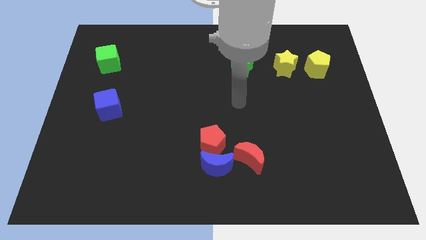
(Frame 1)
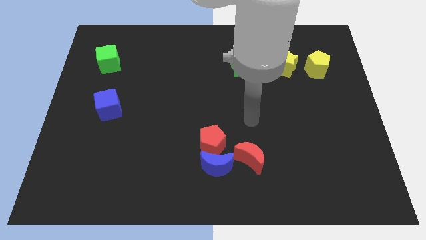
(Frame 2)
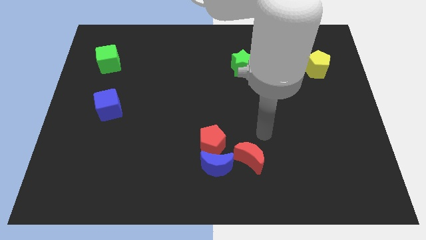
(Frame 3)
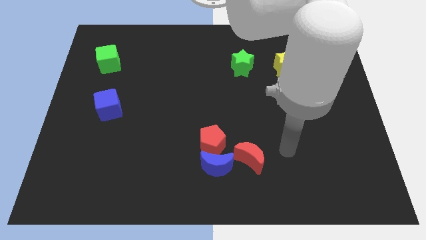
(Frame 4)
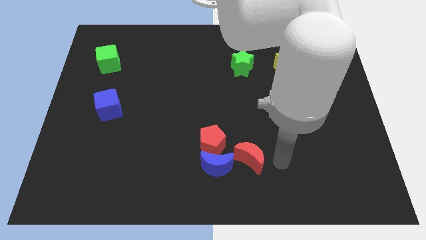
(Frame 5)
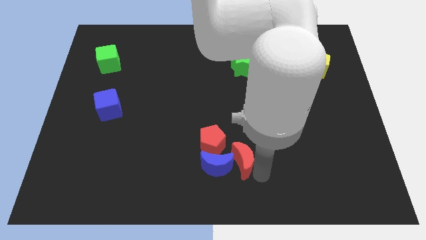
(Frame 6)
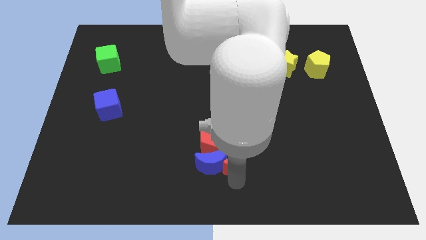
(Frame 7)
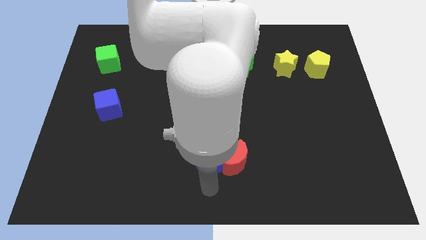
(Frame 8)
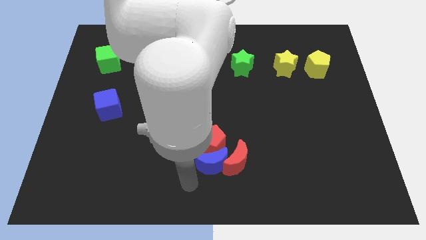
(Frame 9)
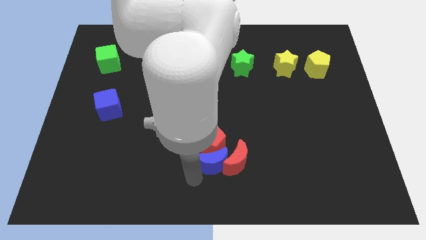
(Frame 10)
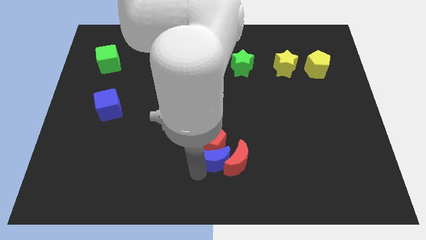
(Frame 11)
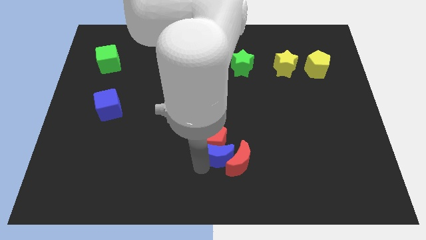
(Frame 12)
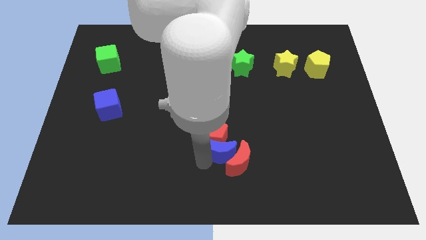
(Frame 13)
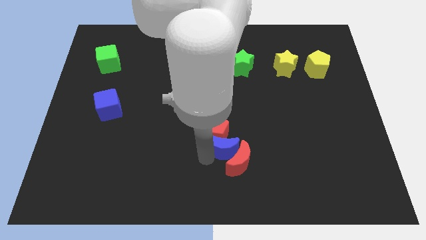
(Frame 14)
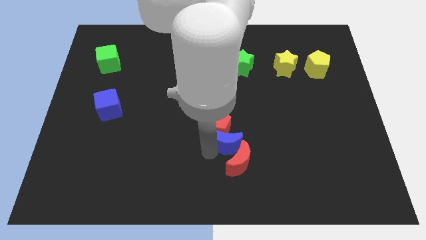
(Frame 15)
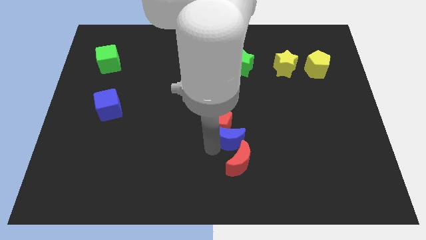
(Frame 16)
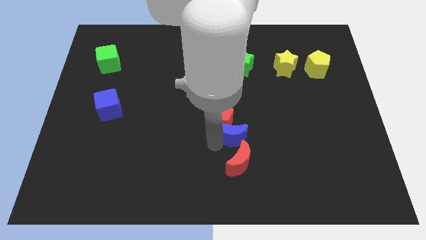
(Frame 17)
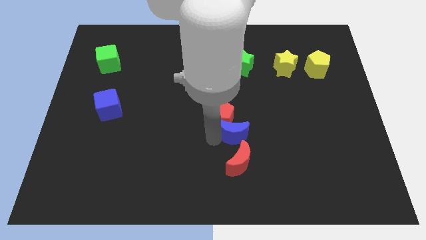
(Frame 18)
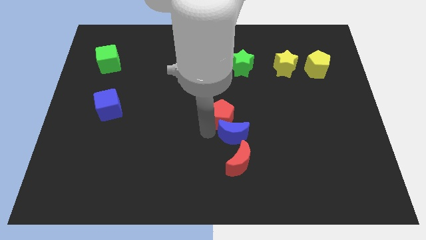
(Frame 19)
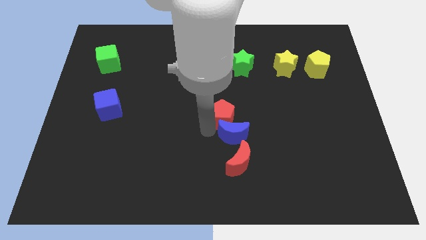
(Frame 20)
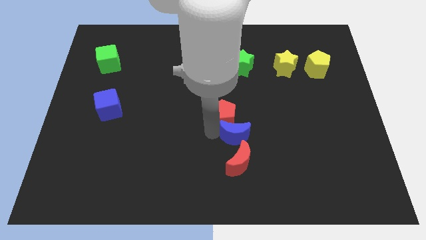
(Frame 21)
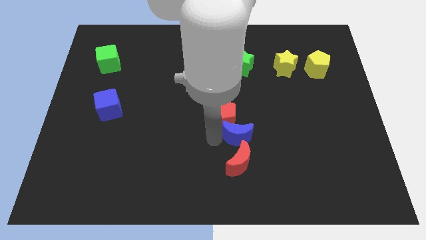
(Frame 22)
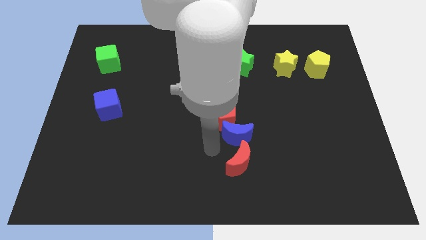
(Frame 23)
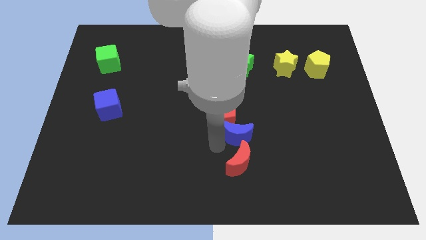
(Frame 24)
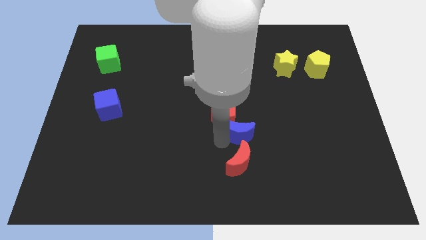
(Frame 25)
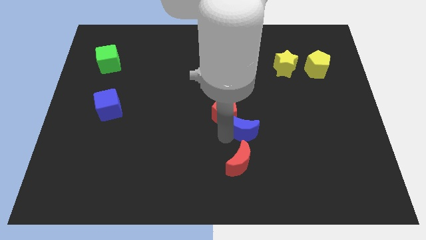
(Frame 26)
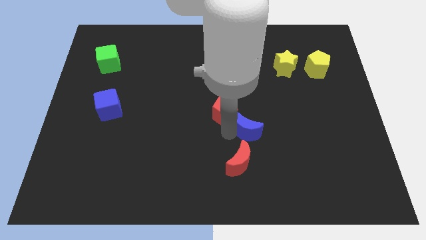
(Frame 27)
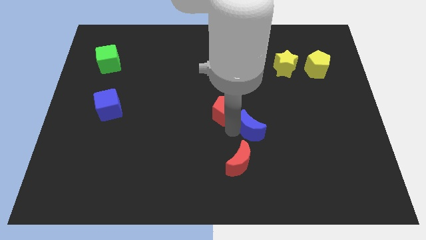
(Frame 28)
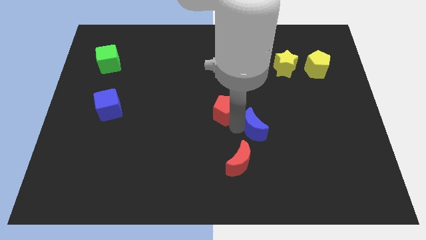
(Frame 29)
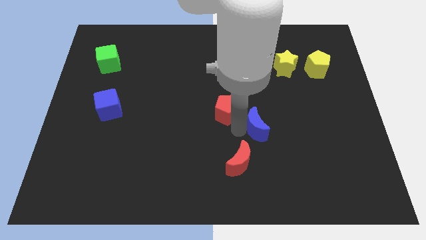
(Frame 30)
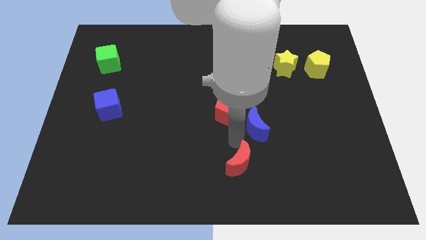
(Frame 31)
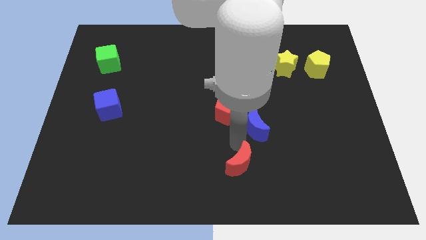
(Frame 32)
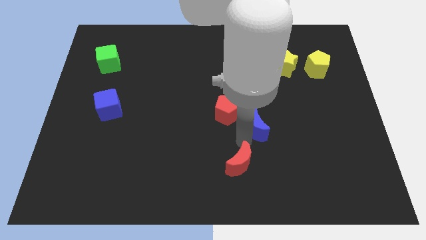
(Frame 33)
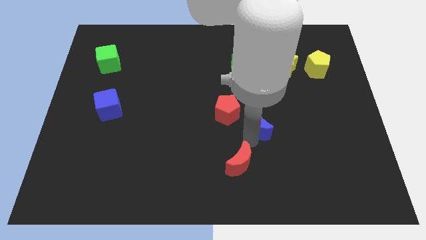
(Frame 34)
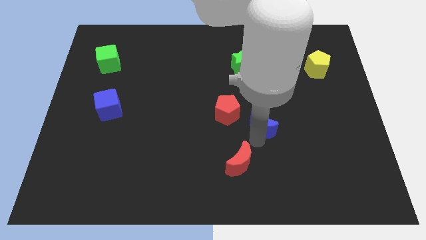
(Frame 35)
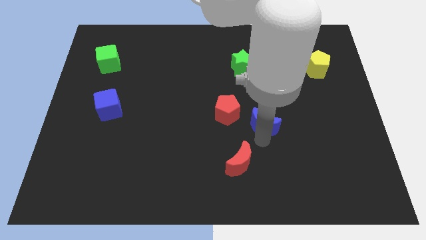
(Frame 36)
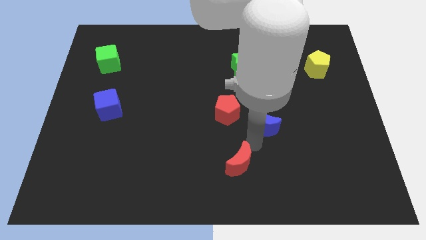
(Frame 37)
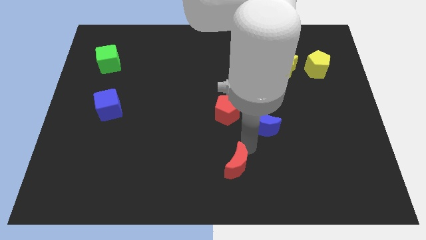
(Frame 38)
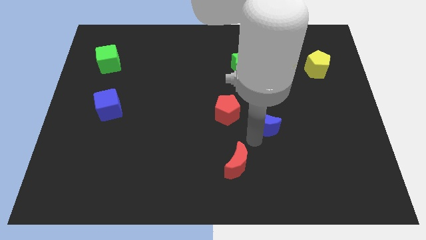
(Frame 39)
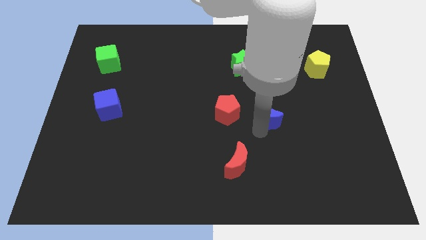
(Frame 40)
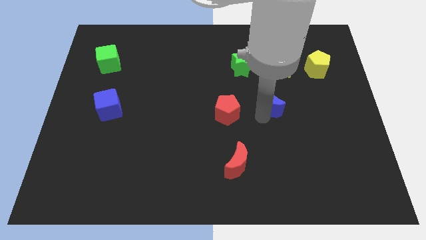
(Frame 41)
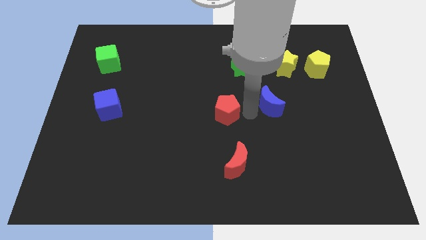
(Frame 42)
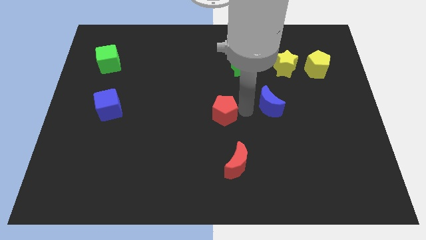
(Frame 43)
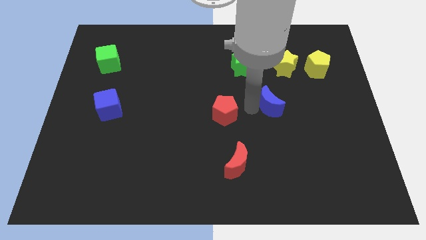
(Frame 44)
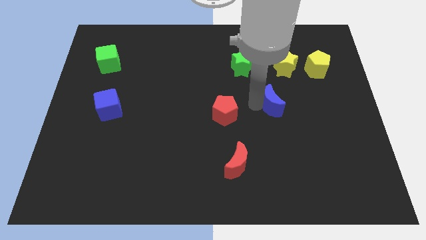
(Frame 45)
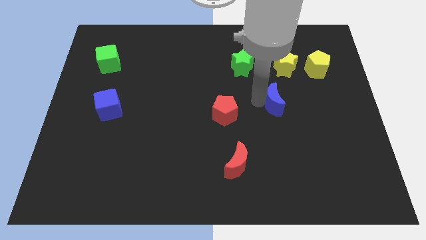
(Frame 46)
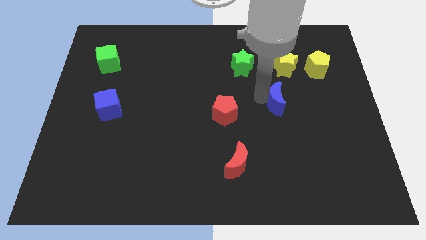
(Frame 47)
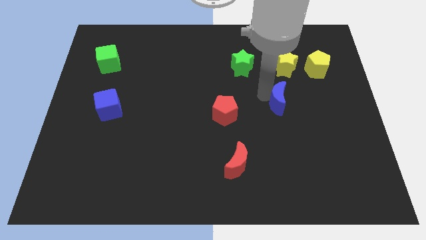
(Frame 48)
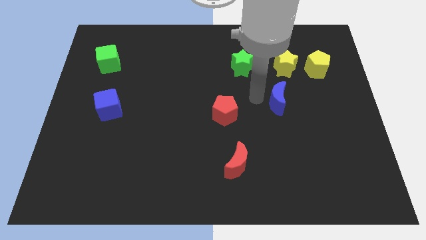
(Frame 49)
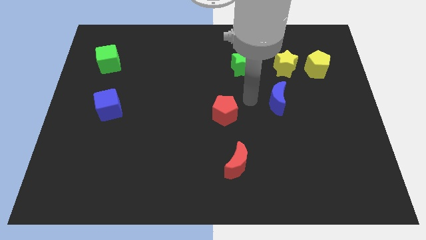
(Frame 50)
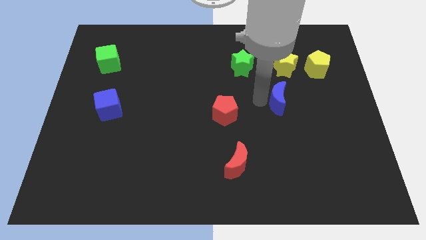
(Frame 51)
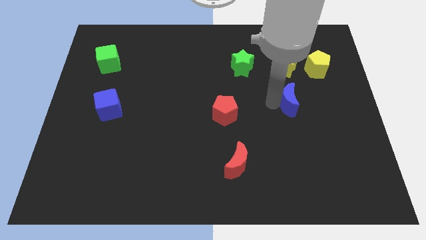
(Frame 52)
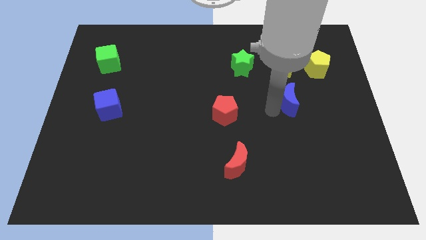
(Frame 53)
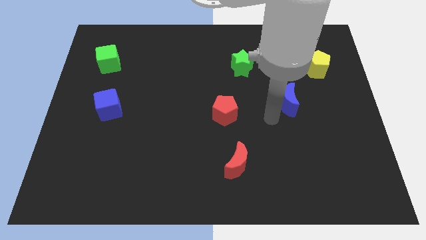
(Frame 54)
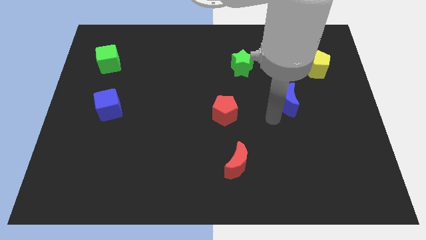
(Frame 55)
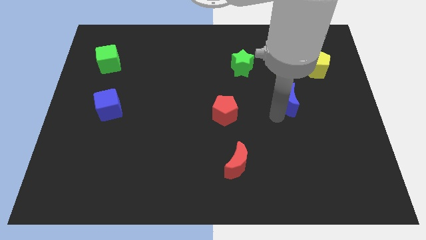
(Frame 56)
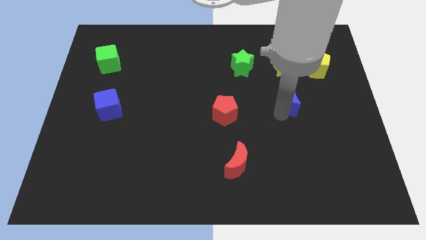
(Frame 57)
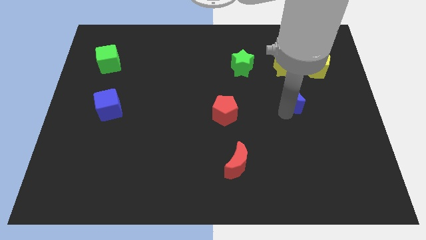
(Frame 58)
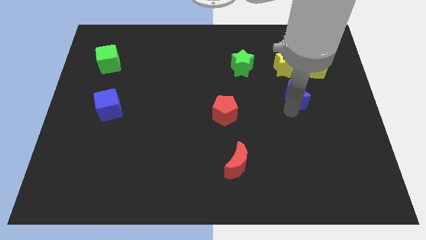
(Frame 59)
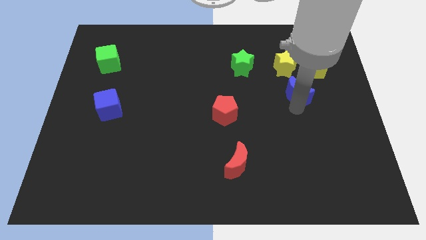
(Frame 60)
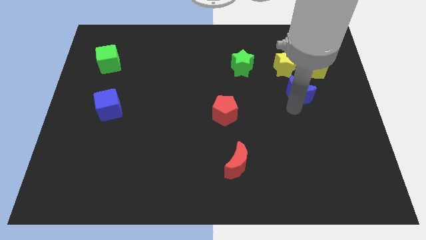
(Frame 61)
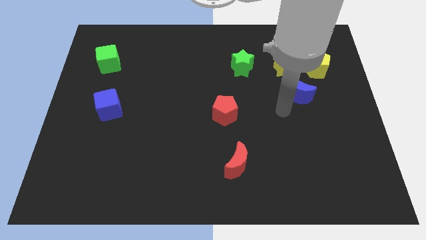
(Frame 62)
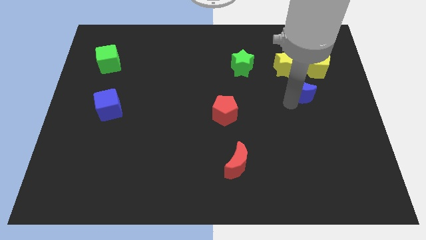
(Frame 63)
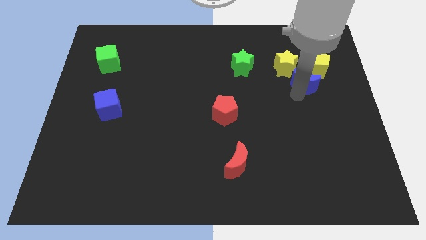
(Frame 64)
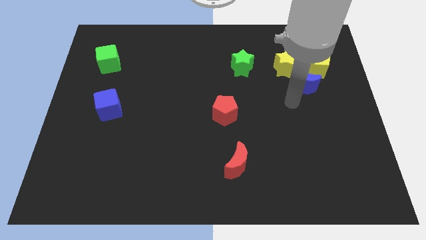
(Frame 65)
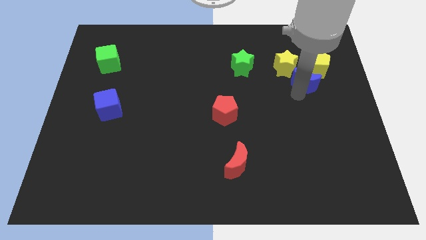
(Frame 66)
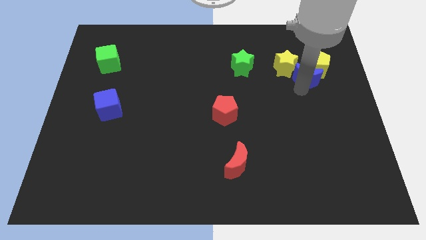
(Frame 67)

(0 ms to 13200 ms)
push the blue moon close to the yellow pentagon

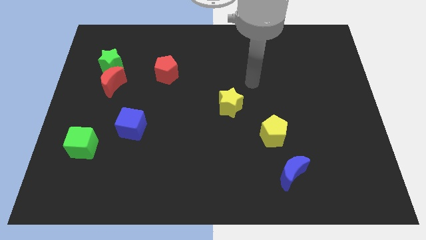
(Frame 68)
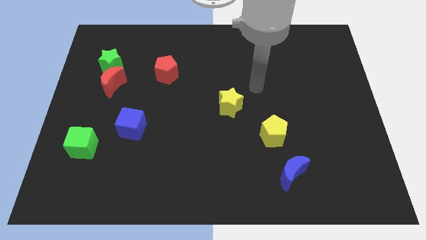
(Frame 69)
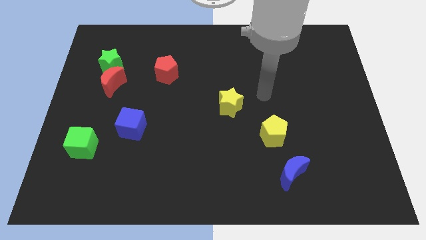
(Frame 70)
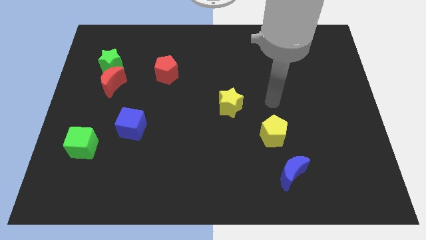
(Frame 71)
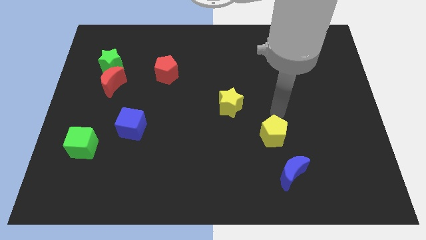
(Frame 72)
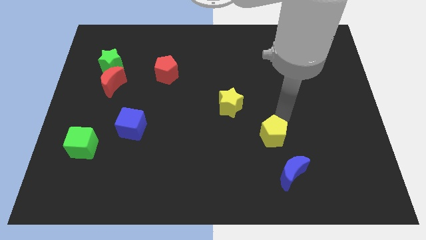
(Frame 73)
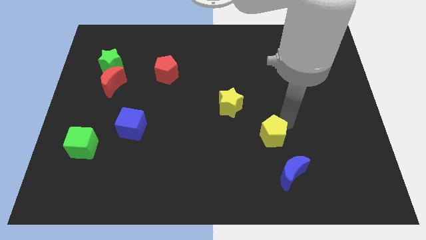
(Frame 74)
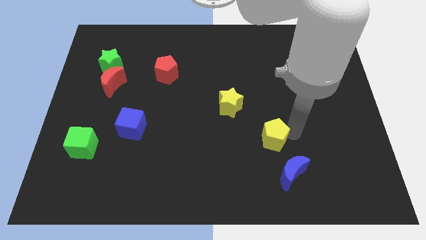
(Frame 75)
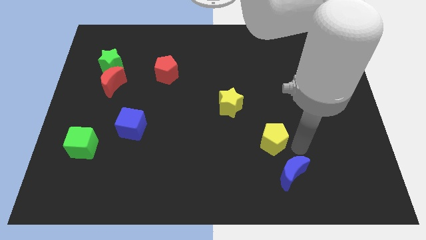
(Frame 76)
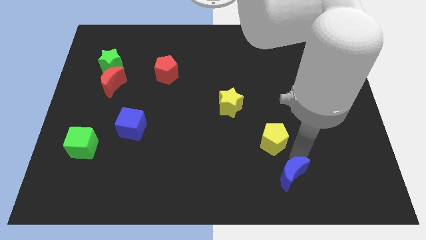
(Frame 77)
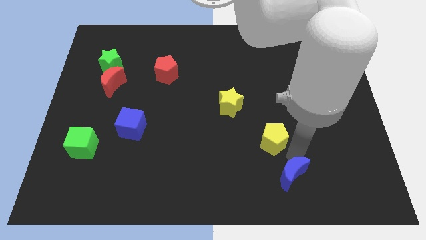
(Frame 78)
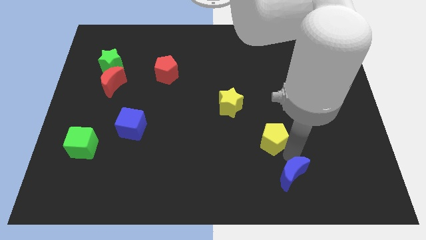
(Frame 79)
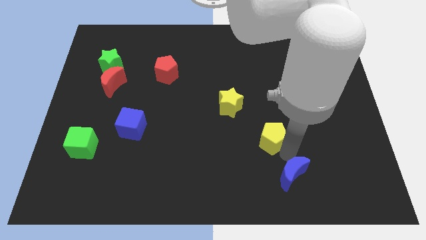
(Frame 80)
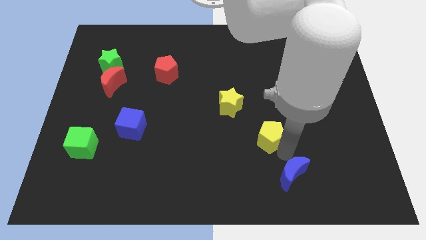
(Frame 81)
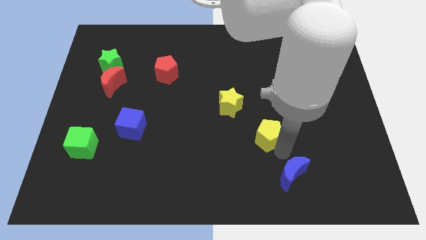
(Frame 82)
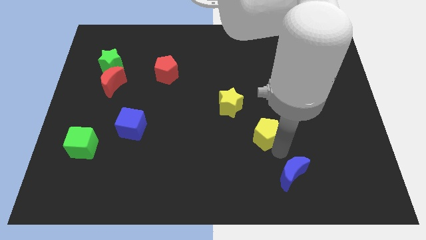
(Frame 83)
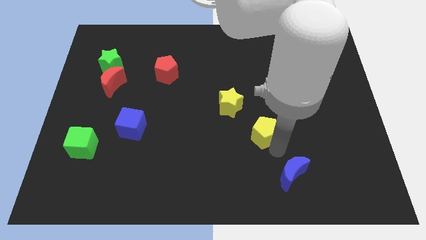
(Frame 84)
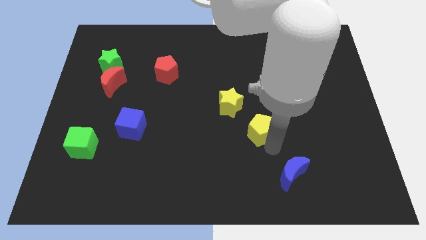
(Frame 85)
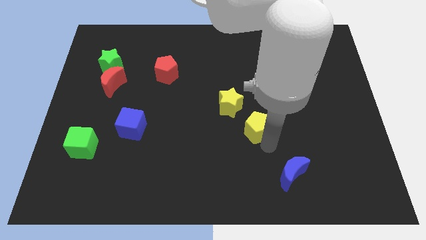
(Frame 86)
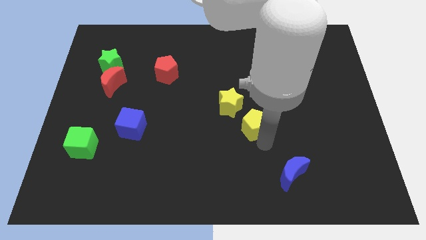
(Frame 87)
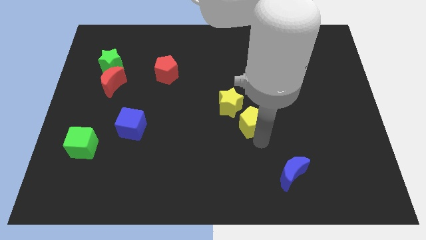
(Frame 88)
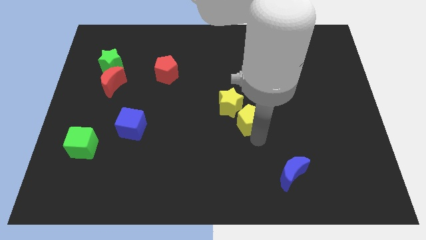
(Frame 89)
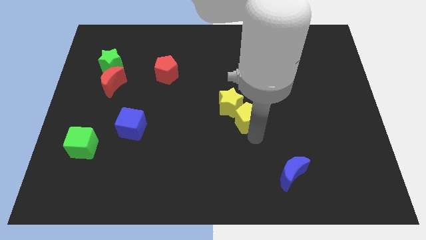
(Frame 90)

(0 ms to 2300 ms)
put the yellow pentagon towards the yellow star
